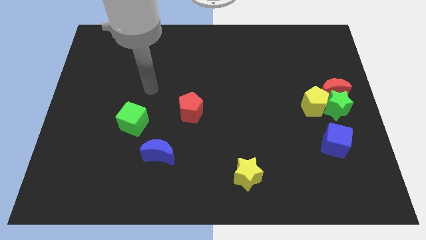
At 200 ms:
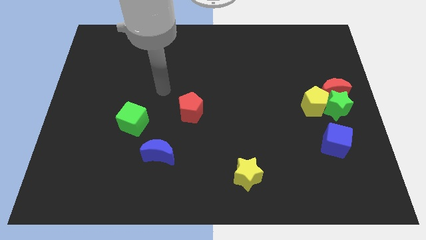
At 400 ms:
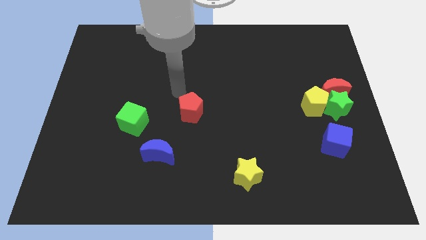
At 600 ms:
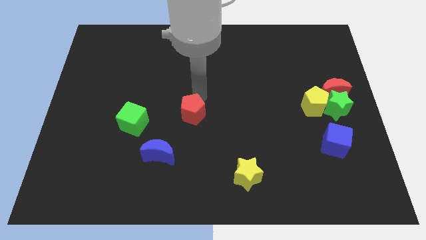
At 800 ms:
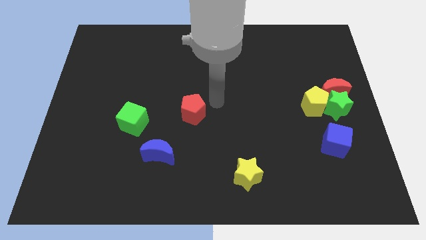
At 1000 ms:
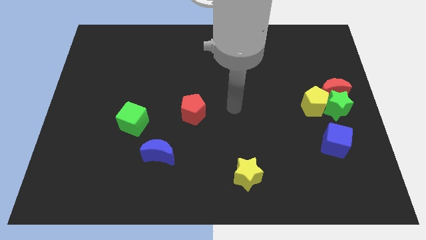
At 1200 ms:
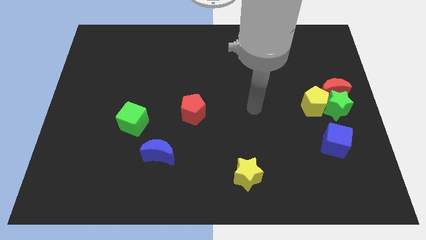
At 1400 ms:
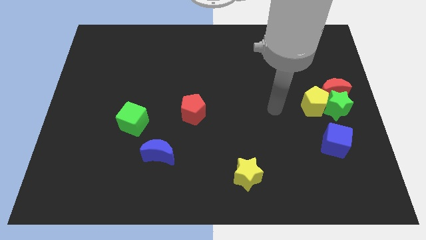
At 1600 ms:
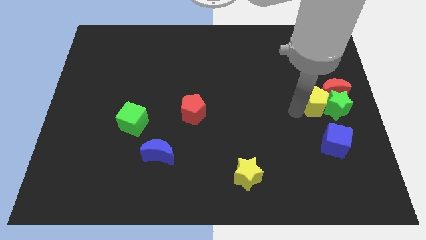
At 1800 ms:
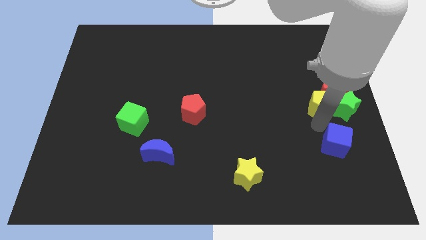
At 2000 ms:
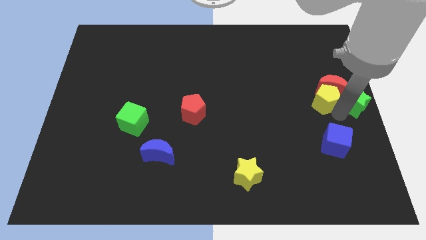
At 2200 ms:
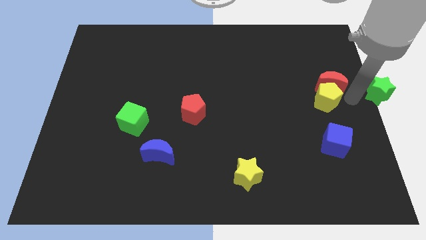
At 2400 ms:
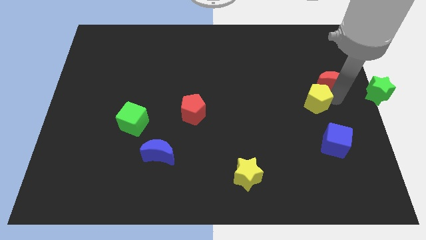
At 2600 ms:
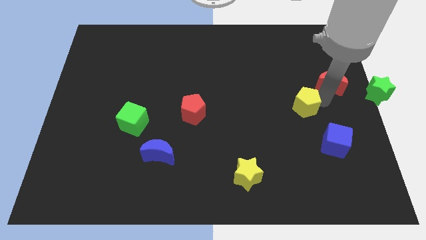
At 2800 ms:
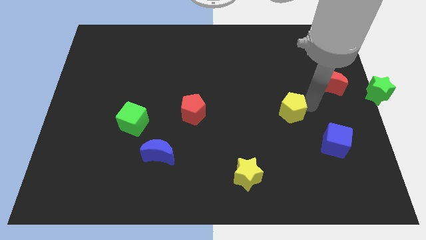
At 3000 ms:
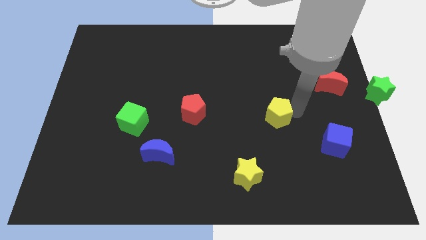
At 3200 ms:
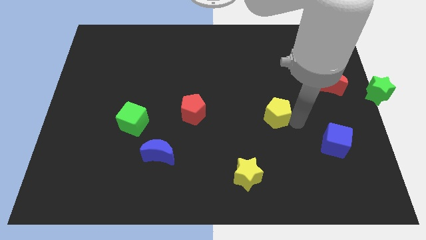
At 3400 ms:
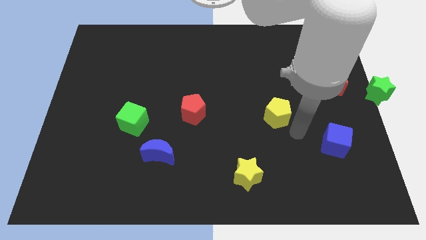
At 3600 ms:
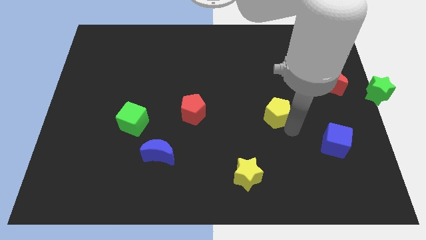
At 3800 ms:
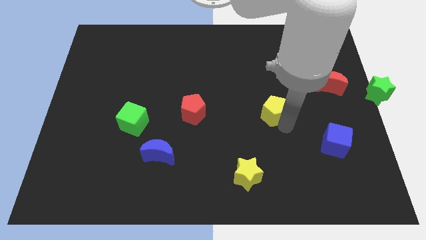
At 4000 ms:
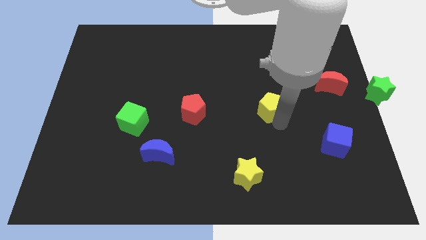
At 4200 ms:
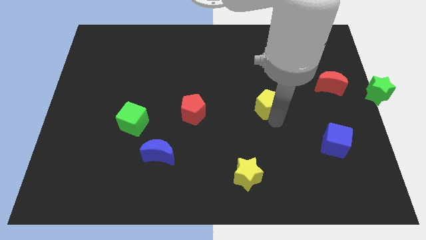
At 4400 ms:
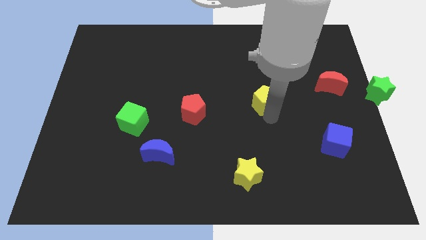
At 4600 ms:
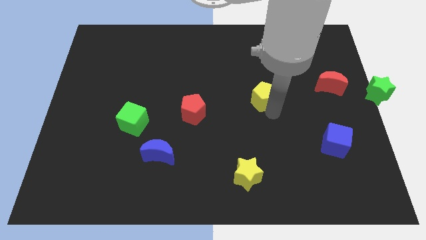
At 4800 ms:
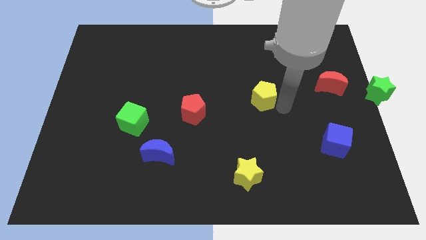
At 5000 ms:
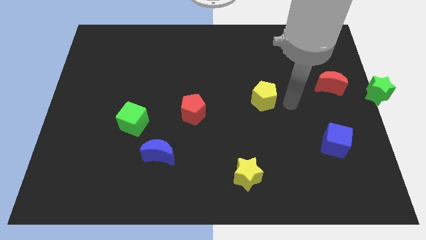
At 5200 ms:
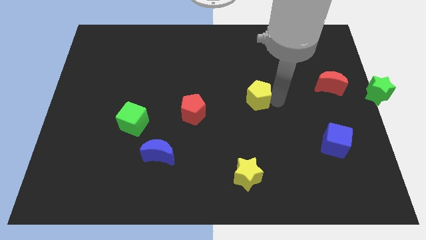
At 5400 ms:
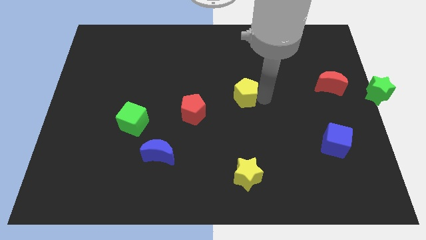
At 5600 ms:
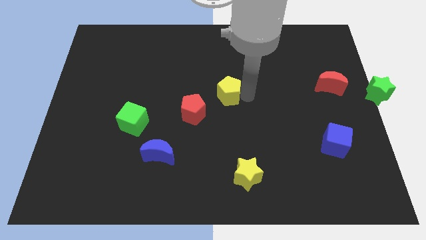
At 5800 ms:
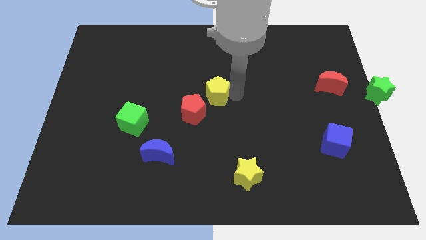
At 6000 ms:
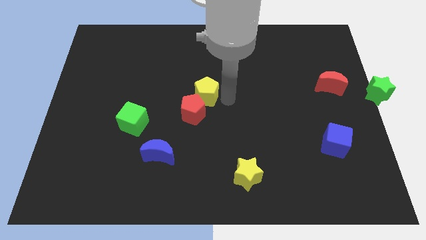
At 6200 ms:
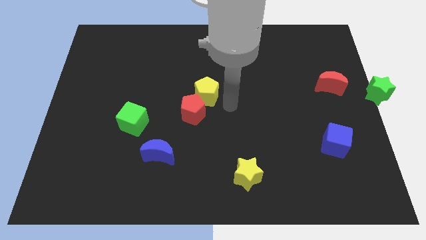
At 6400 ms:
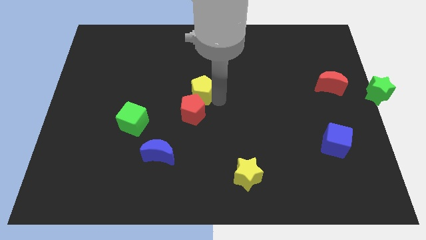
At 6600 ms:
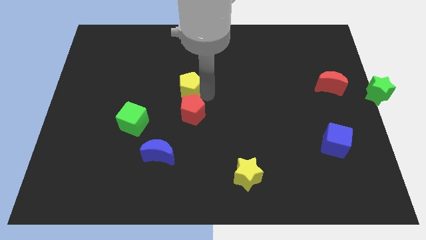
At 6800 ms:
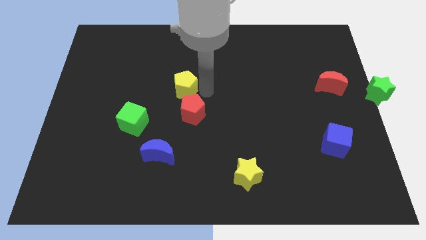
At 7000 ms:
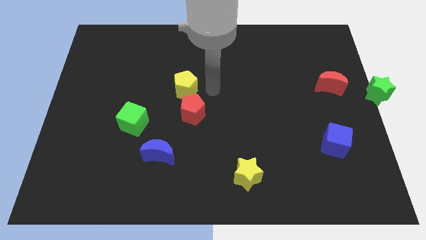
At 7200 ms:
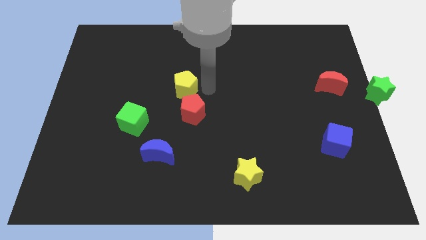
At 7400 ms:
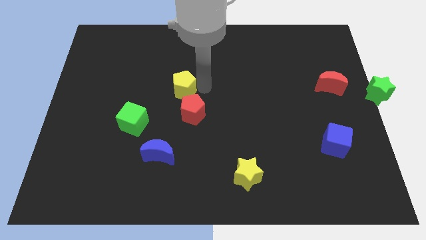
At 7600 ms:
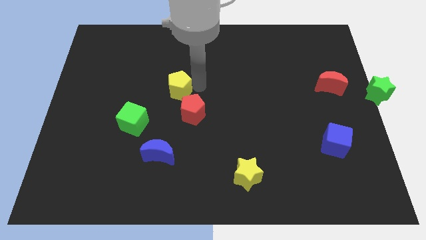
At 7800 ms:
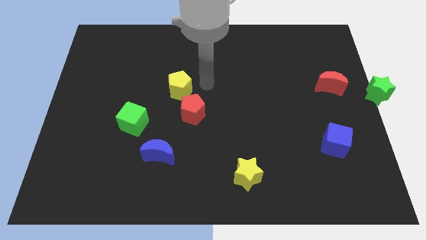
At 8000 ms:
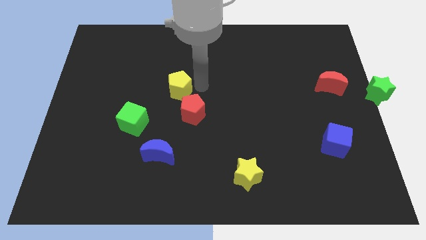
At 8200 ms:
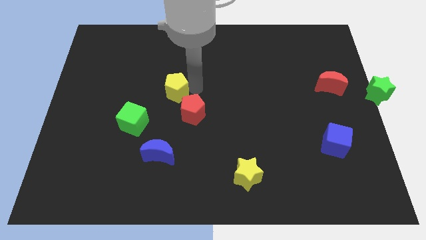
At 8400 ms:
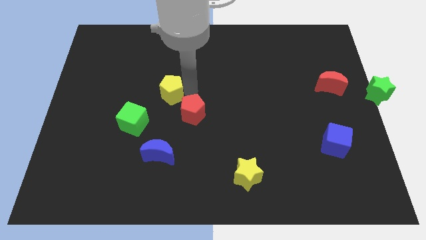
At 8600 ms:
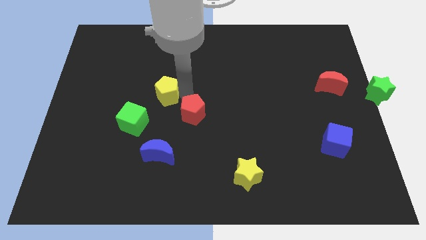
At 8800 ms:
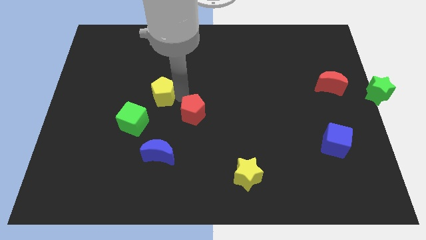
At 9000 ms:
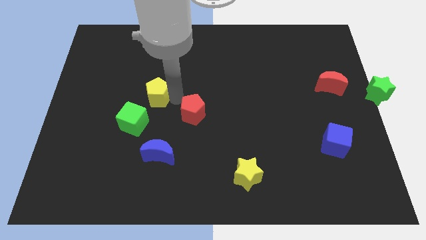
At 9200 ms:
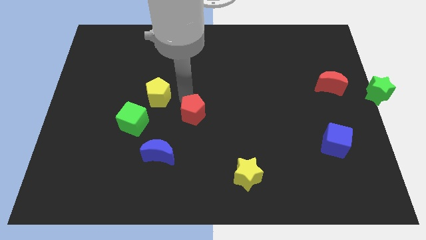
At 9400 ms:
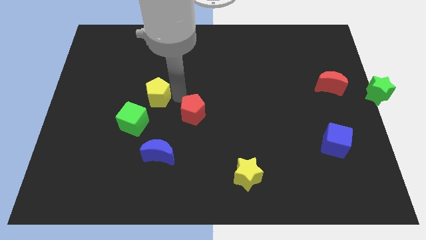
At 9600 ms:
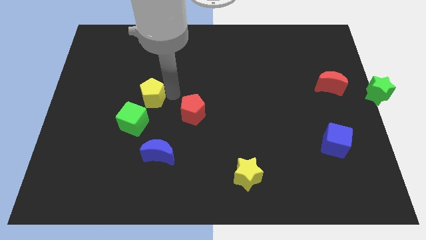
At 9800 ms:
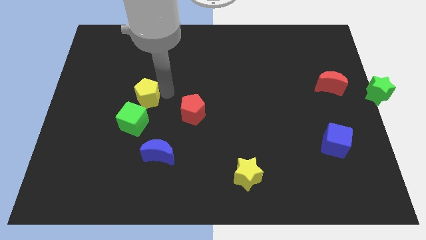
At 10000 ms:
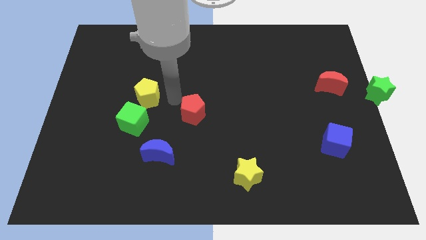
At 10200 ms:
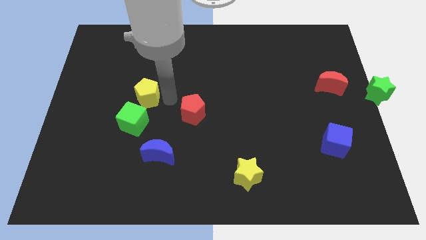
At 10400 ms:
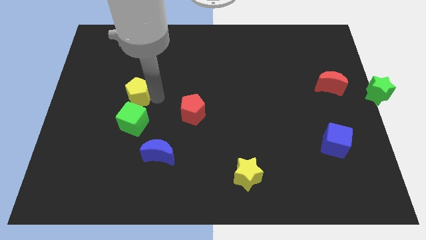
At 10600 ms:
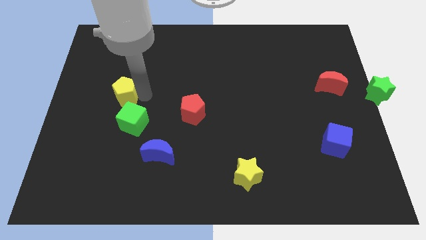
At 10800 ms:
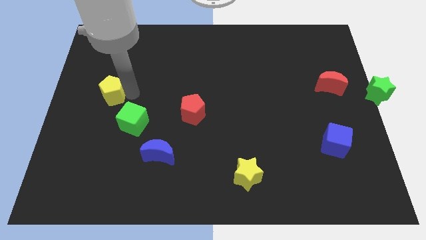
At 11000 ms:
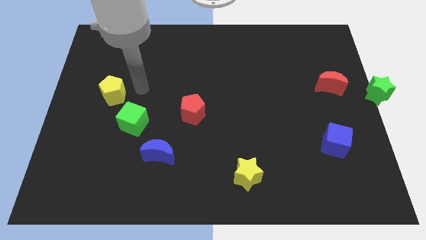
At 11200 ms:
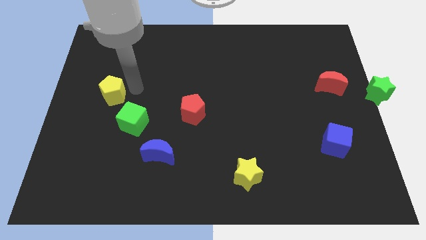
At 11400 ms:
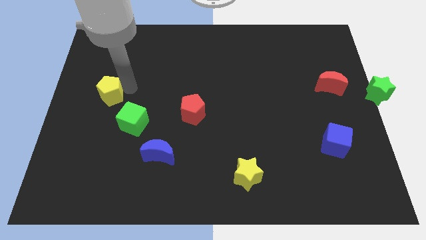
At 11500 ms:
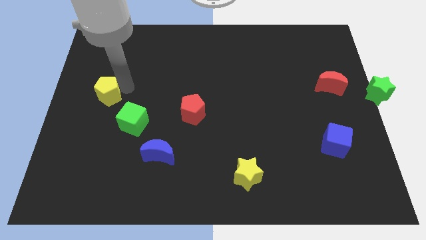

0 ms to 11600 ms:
put the yellow pentagon to the left side
